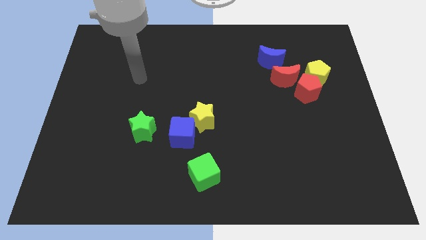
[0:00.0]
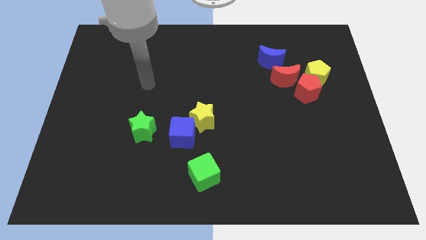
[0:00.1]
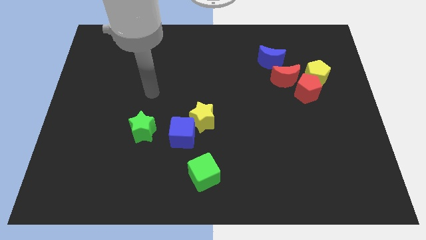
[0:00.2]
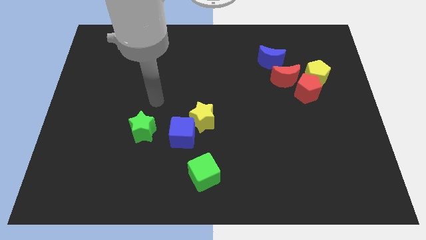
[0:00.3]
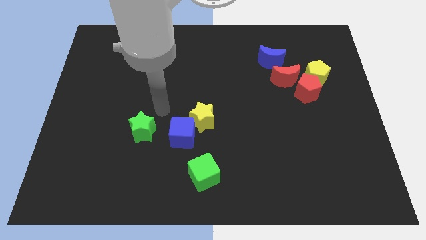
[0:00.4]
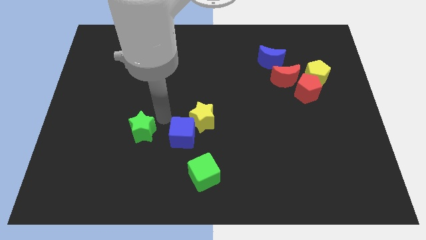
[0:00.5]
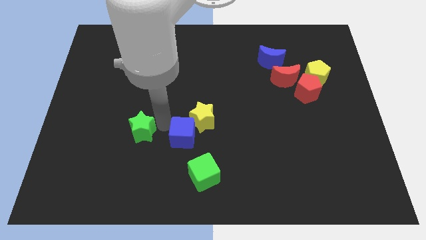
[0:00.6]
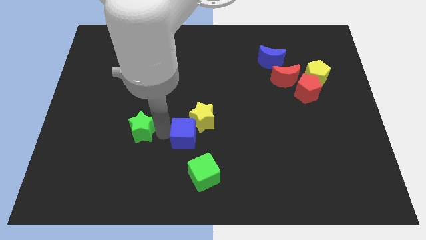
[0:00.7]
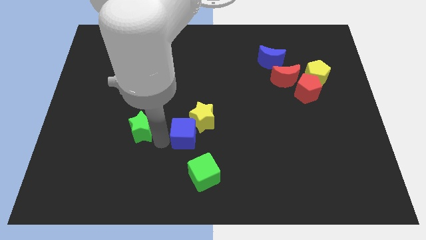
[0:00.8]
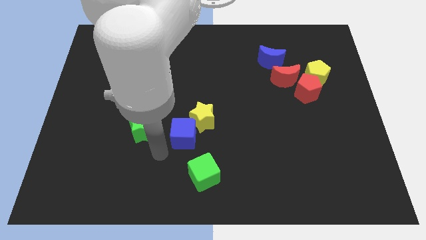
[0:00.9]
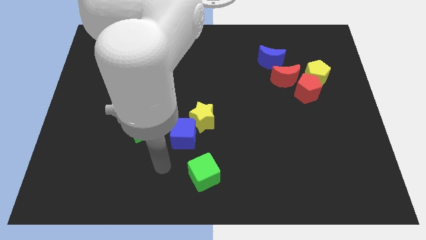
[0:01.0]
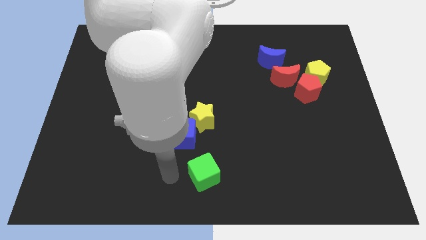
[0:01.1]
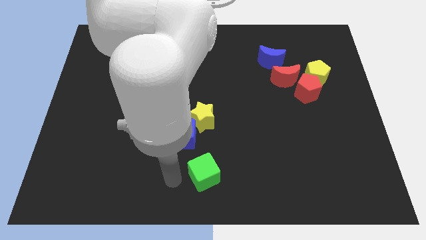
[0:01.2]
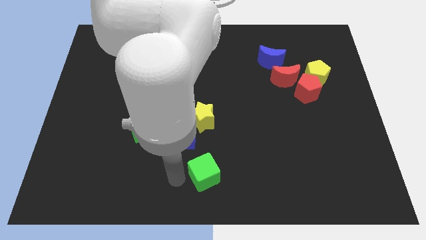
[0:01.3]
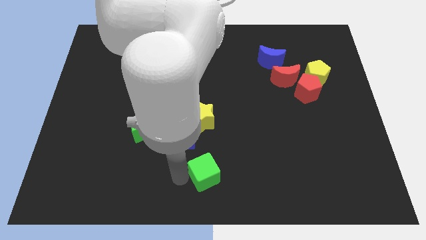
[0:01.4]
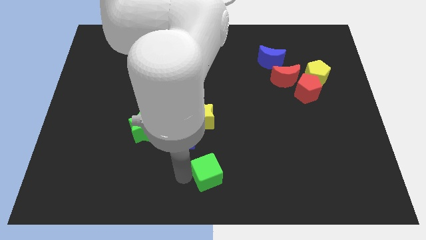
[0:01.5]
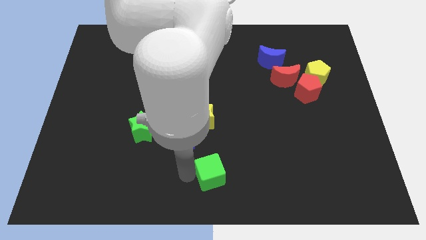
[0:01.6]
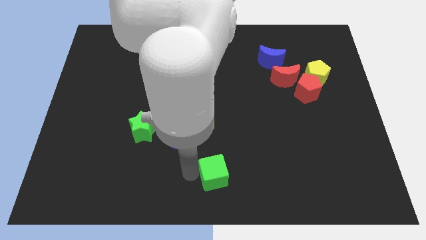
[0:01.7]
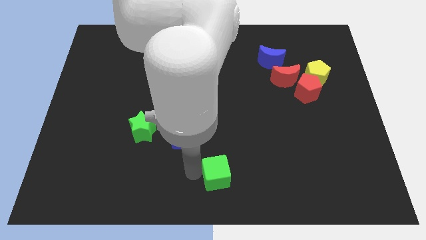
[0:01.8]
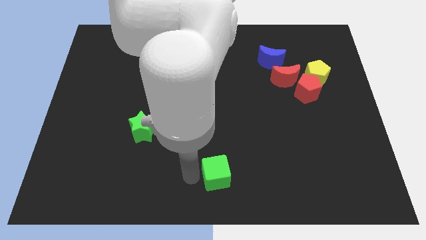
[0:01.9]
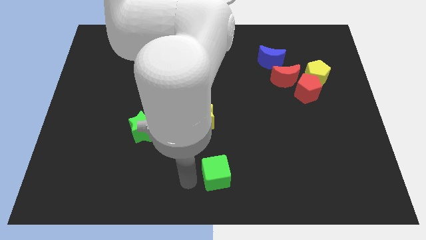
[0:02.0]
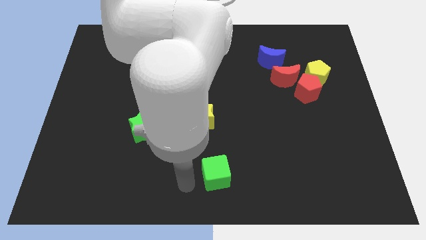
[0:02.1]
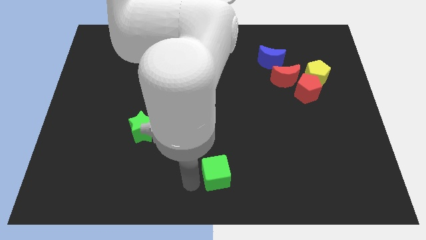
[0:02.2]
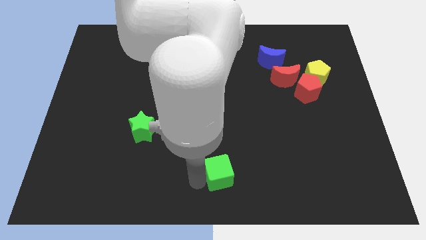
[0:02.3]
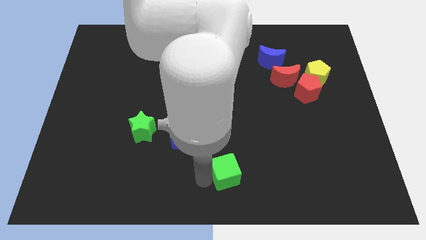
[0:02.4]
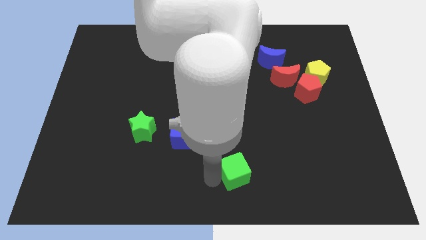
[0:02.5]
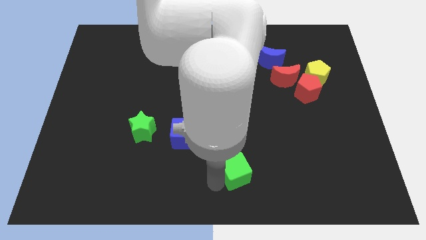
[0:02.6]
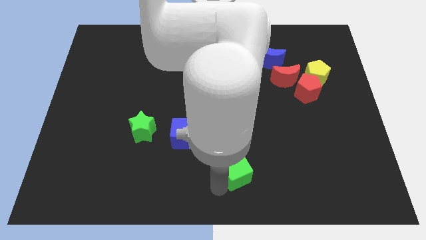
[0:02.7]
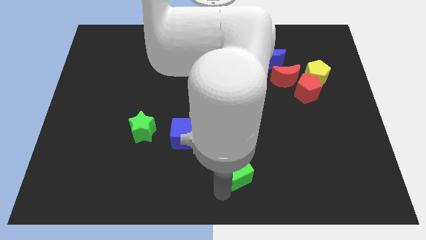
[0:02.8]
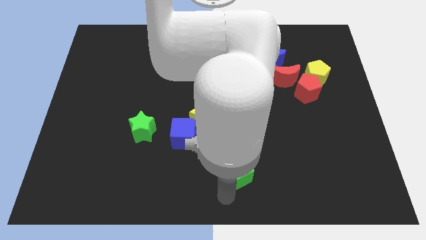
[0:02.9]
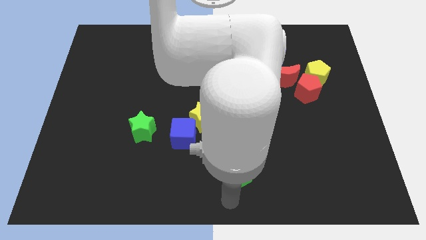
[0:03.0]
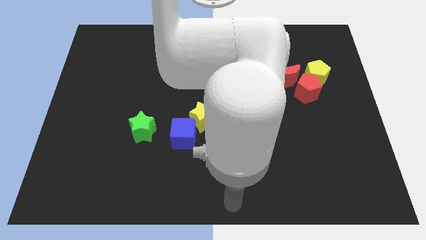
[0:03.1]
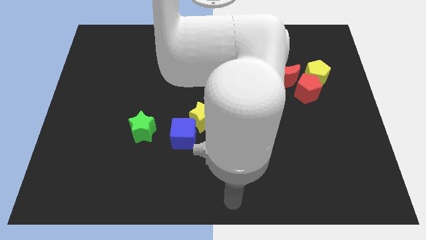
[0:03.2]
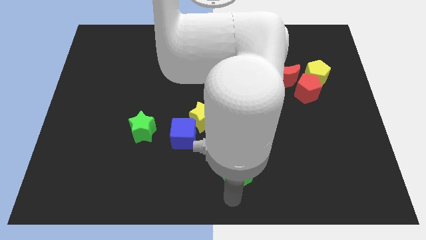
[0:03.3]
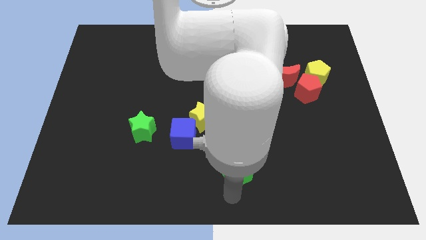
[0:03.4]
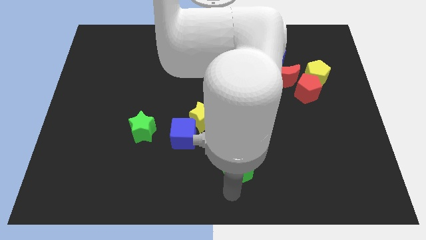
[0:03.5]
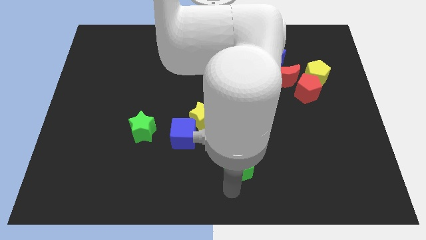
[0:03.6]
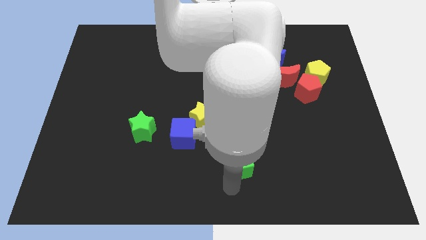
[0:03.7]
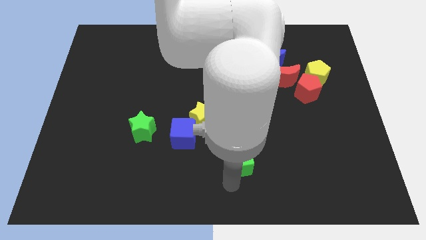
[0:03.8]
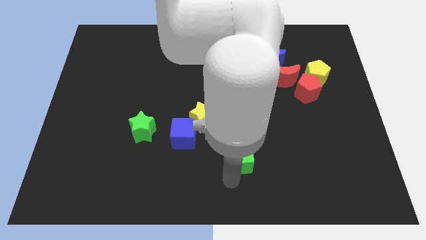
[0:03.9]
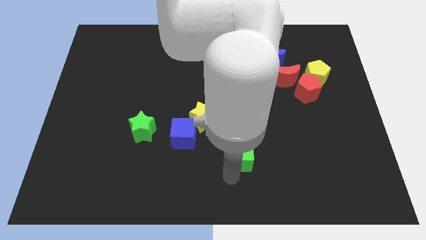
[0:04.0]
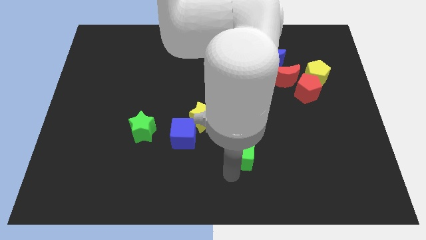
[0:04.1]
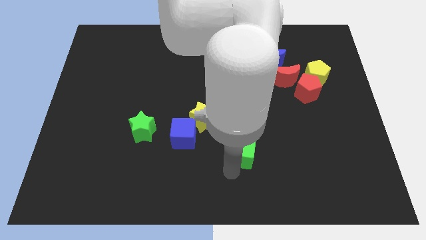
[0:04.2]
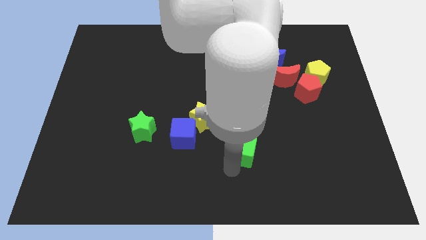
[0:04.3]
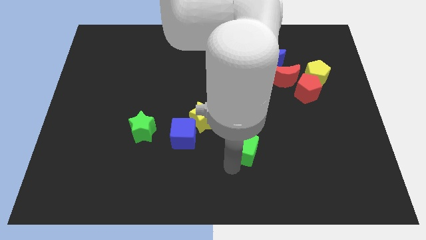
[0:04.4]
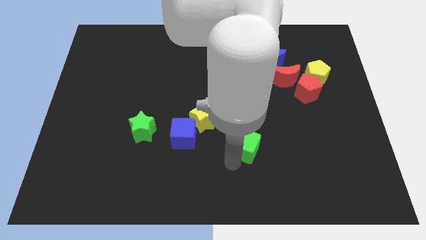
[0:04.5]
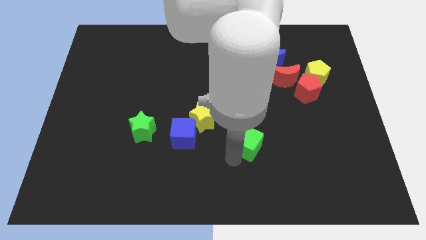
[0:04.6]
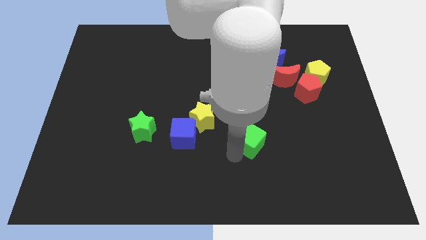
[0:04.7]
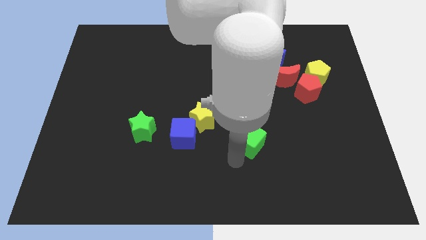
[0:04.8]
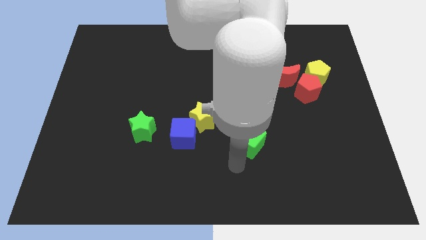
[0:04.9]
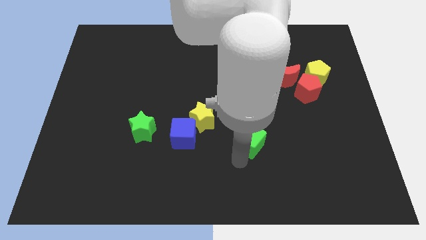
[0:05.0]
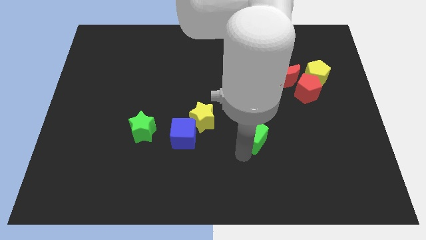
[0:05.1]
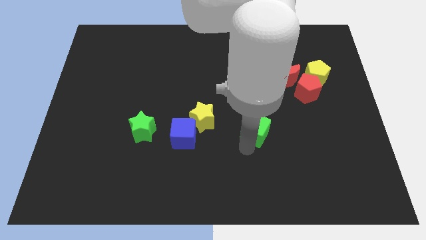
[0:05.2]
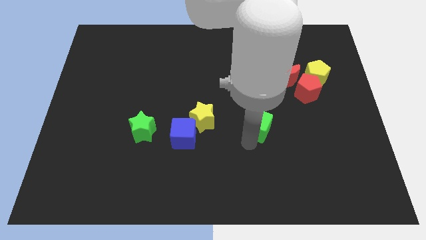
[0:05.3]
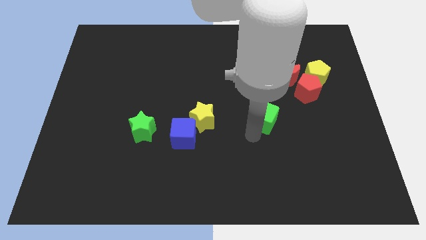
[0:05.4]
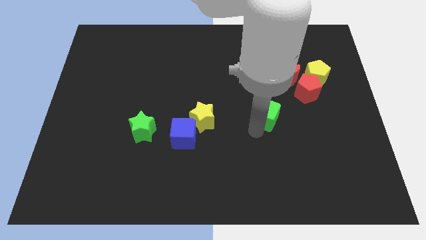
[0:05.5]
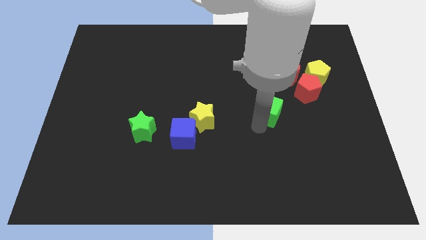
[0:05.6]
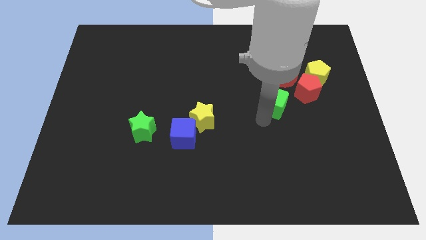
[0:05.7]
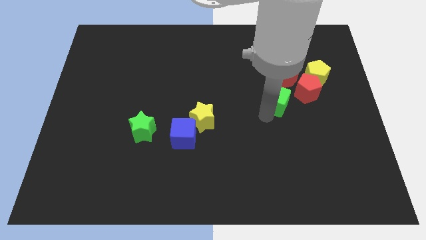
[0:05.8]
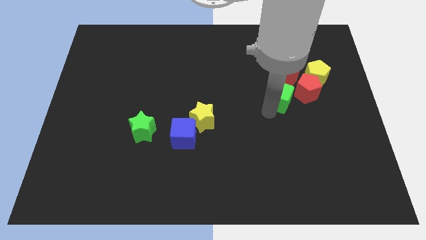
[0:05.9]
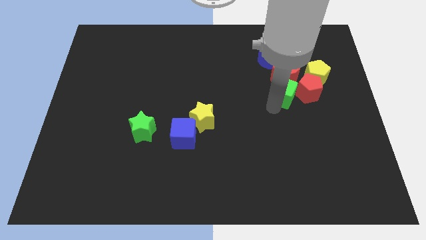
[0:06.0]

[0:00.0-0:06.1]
push the green cube to the red moon
